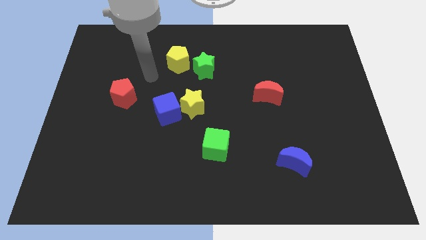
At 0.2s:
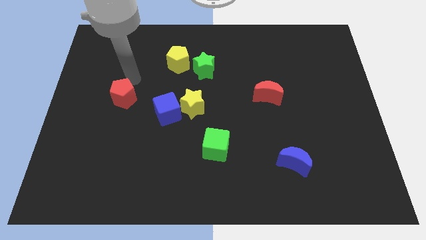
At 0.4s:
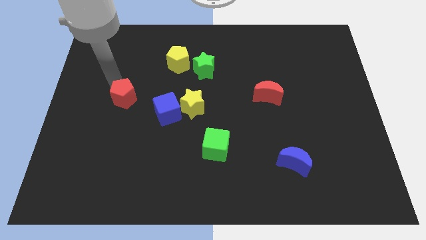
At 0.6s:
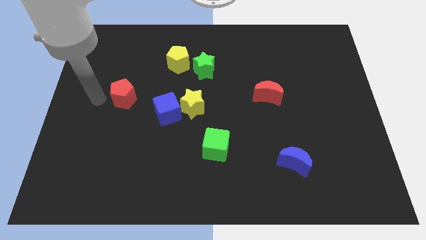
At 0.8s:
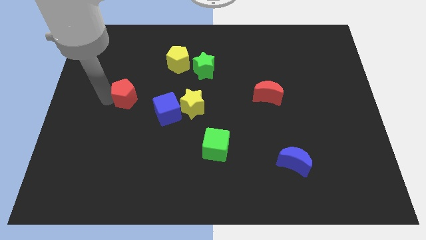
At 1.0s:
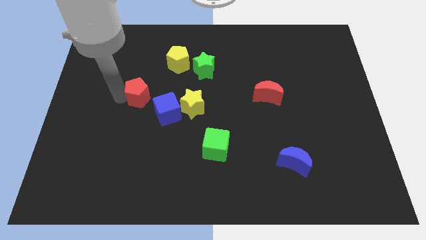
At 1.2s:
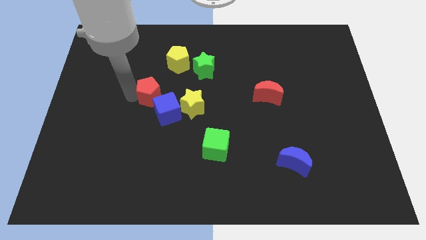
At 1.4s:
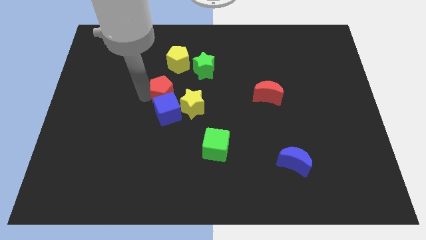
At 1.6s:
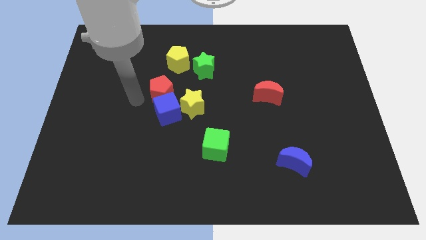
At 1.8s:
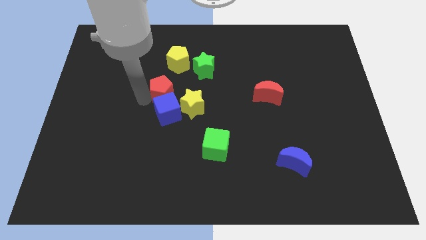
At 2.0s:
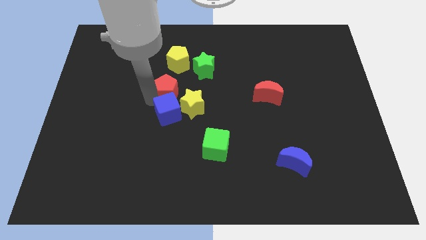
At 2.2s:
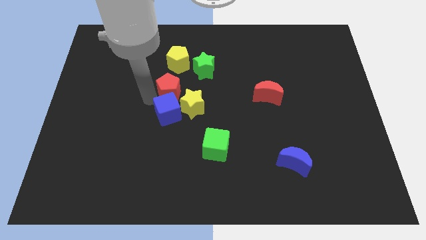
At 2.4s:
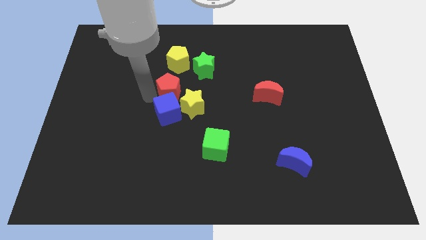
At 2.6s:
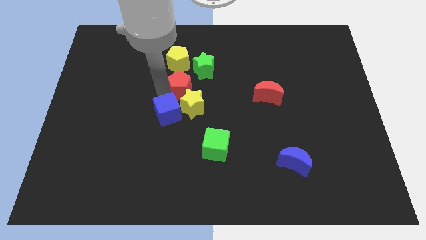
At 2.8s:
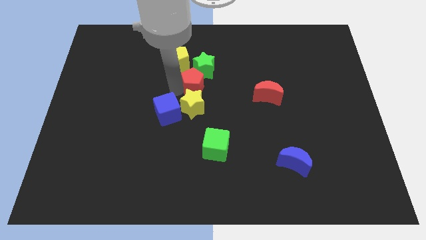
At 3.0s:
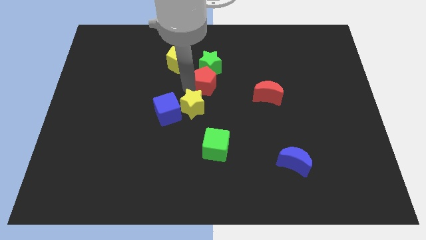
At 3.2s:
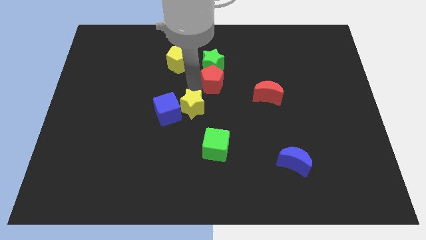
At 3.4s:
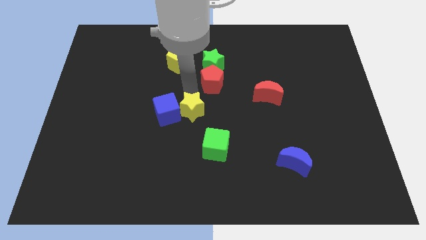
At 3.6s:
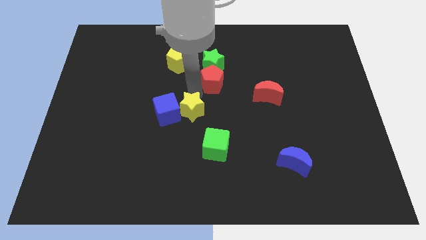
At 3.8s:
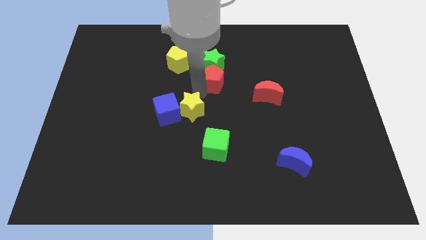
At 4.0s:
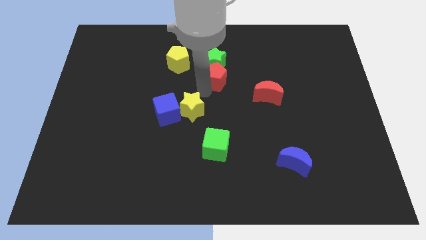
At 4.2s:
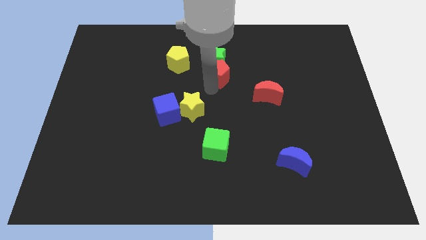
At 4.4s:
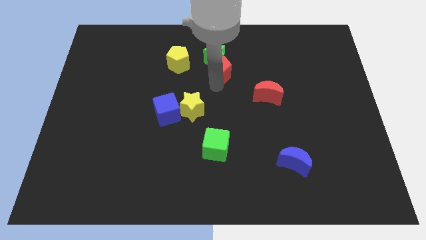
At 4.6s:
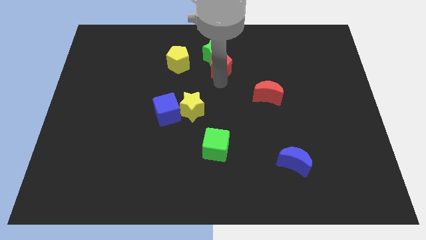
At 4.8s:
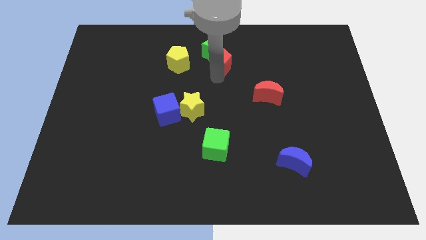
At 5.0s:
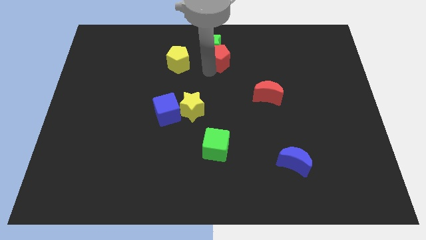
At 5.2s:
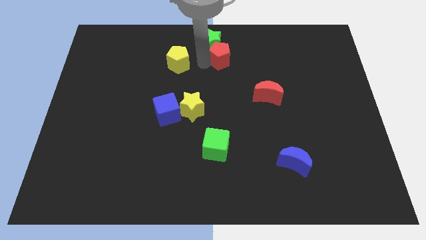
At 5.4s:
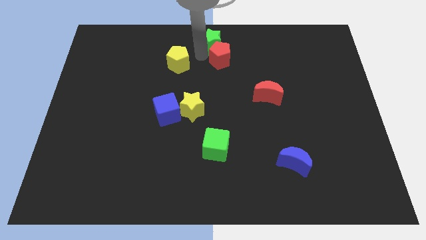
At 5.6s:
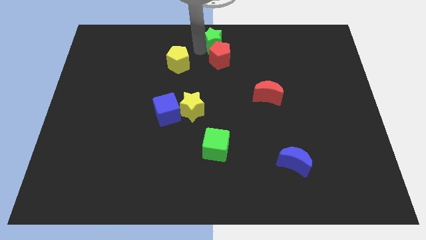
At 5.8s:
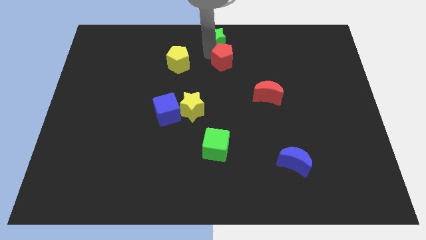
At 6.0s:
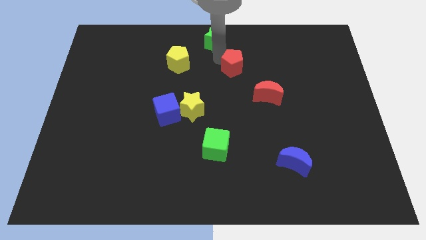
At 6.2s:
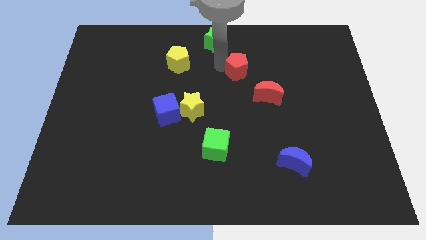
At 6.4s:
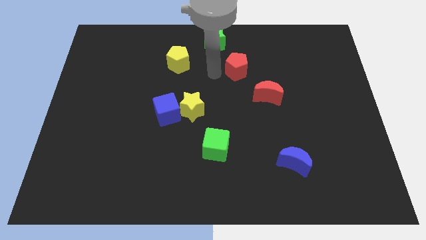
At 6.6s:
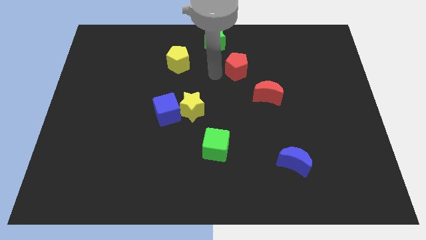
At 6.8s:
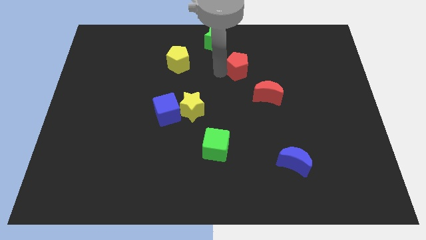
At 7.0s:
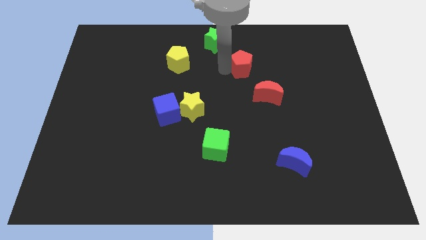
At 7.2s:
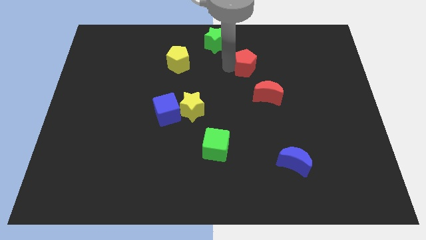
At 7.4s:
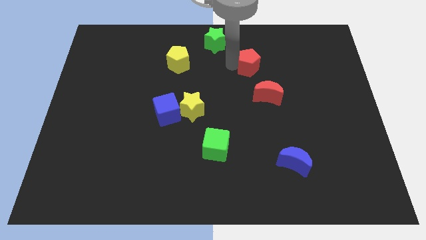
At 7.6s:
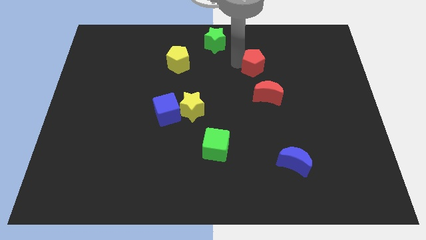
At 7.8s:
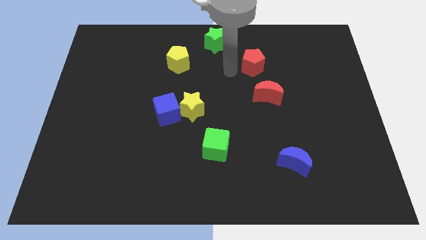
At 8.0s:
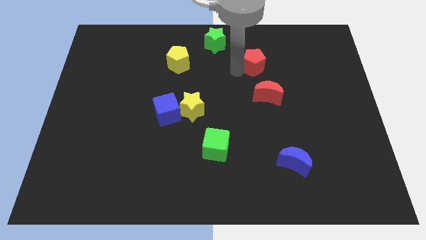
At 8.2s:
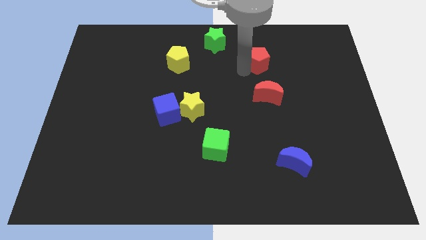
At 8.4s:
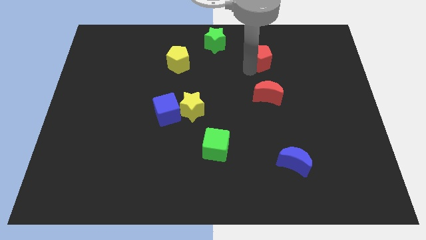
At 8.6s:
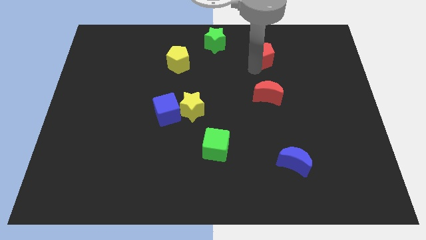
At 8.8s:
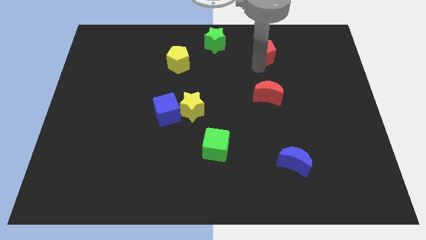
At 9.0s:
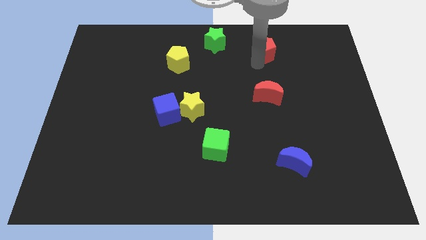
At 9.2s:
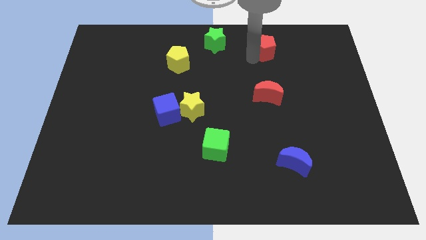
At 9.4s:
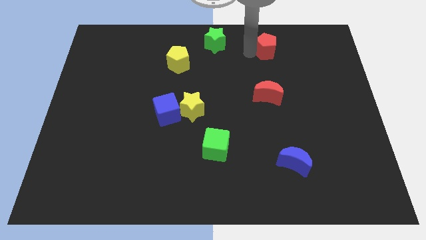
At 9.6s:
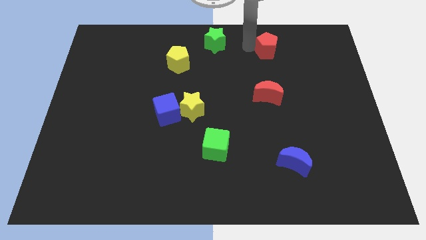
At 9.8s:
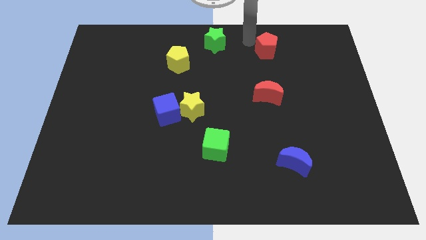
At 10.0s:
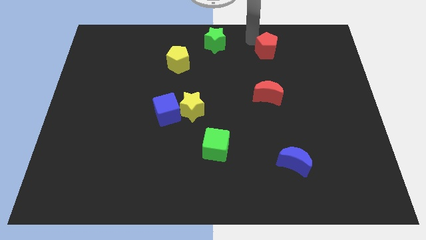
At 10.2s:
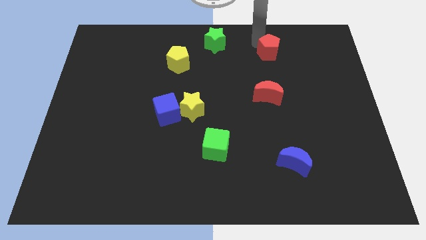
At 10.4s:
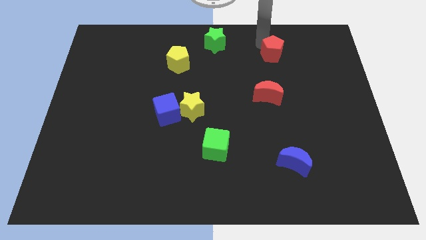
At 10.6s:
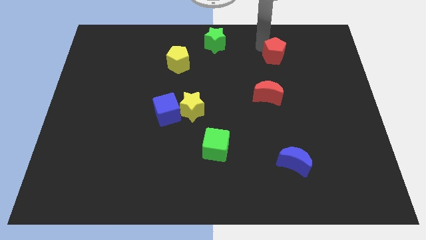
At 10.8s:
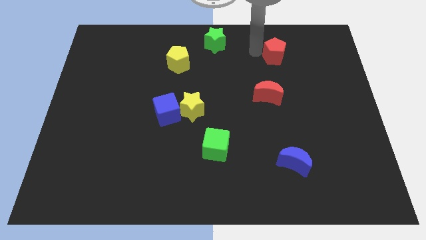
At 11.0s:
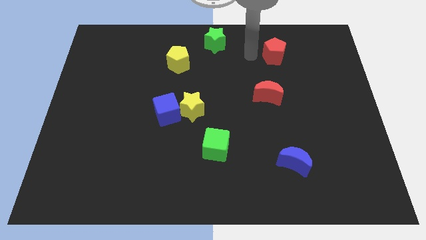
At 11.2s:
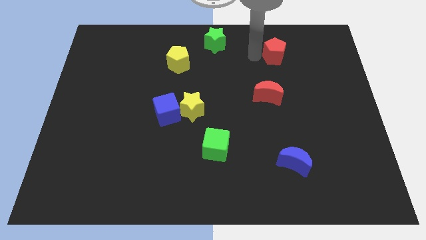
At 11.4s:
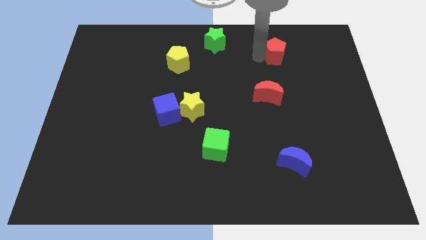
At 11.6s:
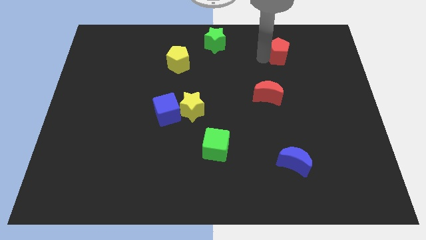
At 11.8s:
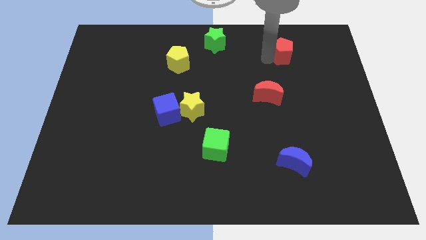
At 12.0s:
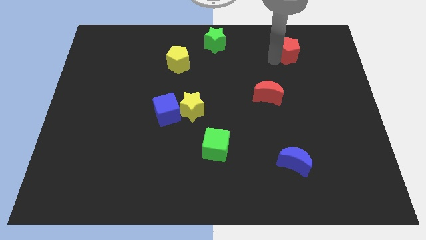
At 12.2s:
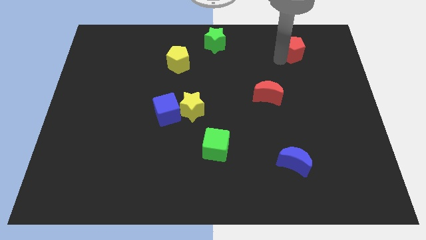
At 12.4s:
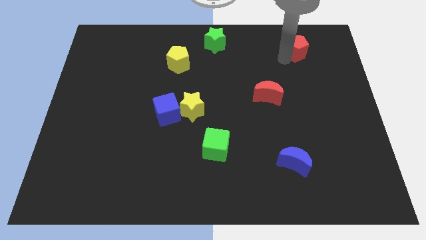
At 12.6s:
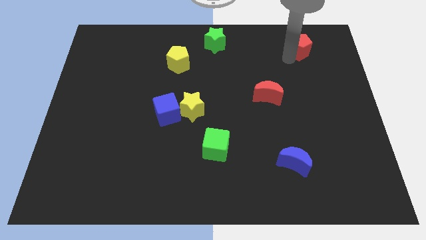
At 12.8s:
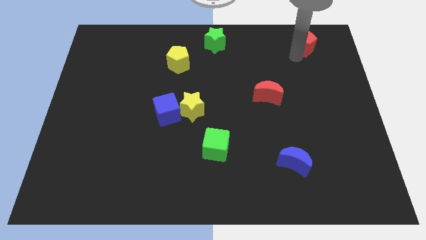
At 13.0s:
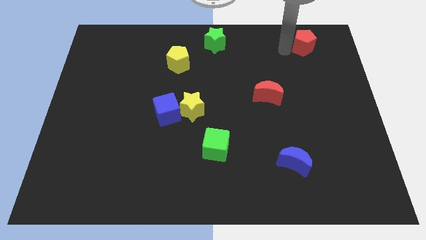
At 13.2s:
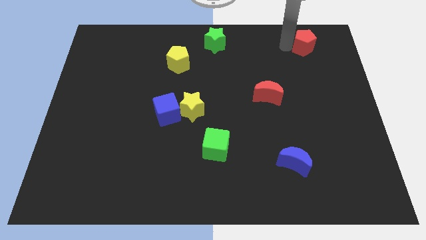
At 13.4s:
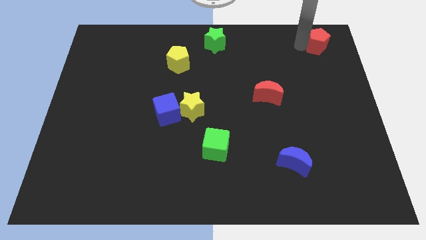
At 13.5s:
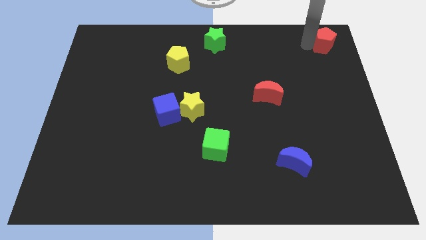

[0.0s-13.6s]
move the red pentagon to the upper right corner
